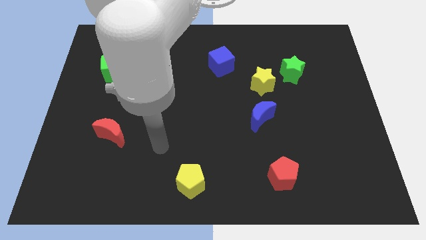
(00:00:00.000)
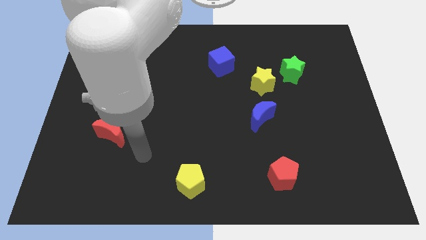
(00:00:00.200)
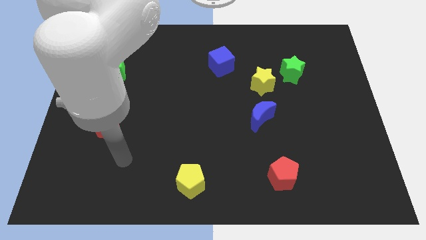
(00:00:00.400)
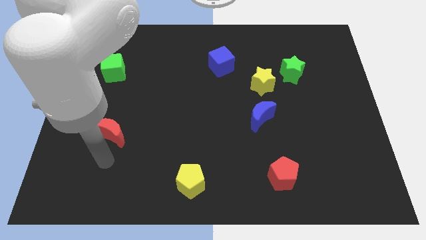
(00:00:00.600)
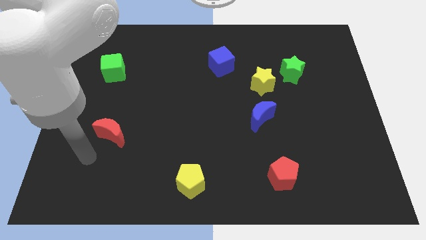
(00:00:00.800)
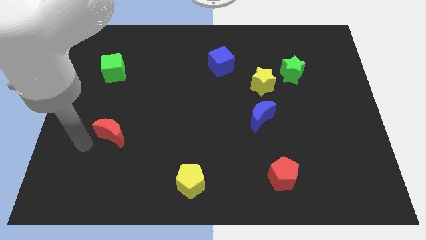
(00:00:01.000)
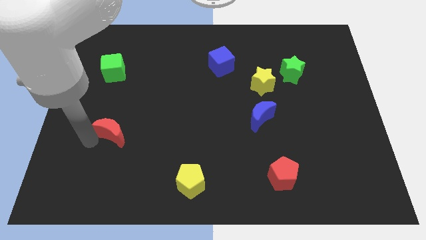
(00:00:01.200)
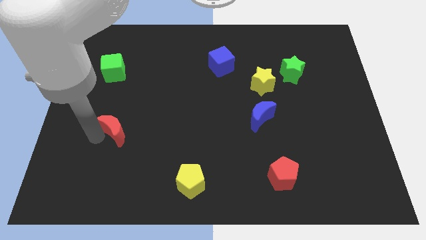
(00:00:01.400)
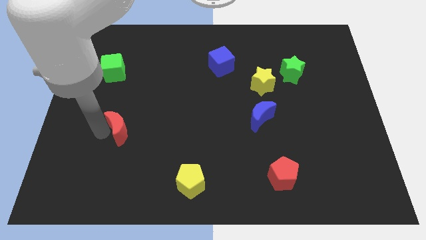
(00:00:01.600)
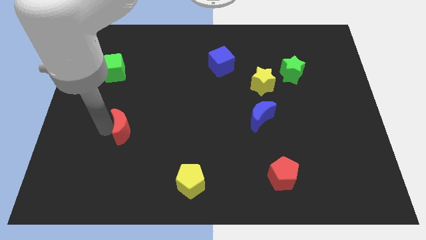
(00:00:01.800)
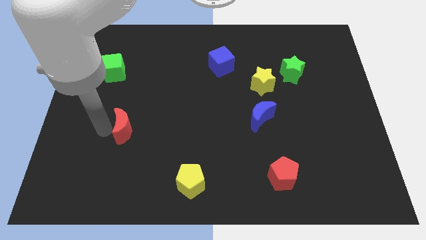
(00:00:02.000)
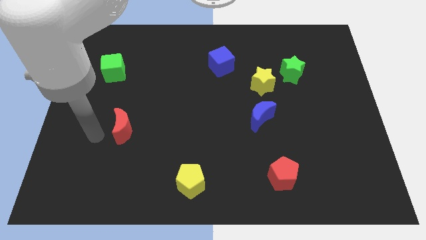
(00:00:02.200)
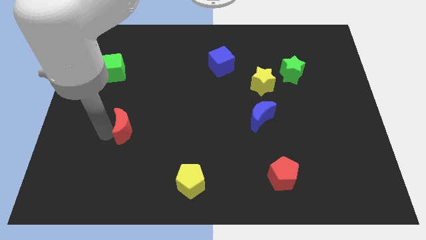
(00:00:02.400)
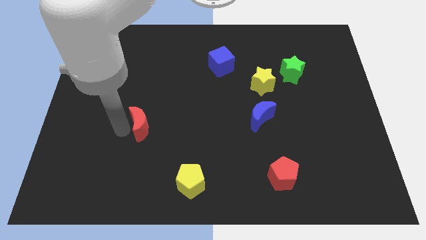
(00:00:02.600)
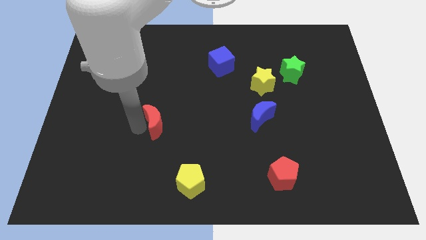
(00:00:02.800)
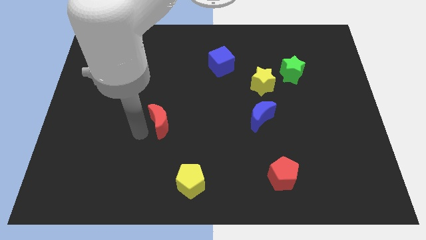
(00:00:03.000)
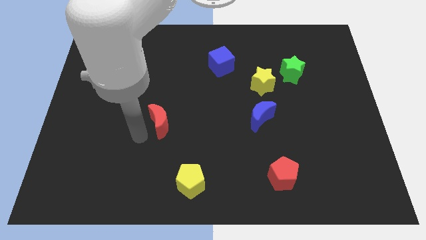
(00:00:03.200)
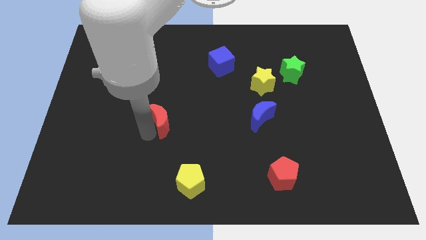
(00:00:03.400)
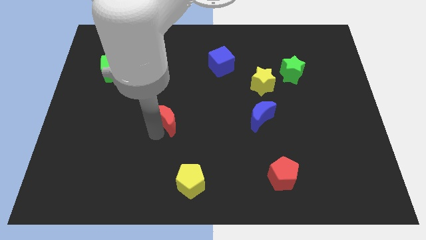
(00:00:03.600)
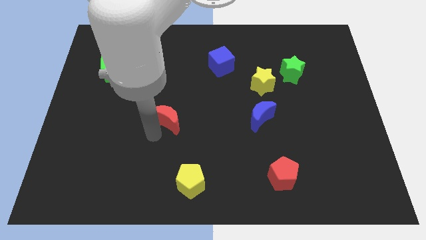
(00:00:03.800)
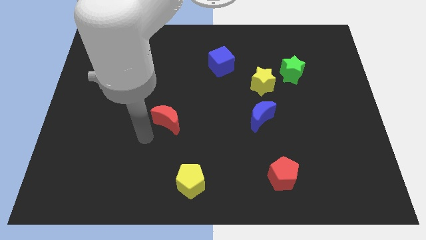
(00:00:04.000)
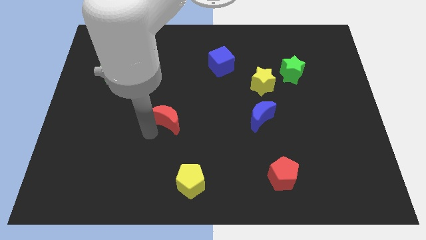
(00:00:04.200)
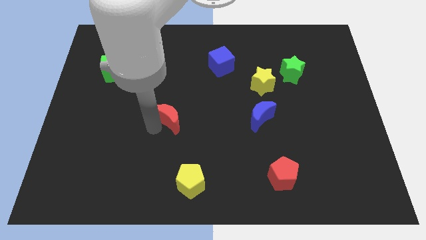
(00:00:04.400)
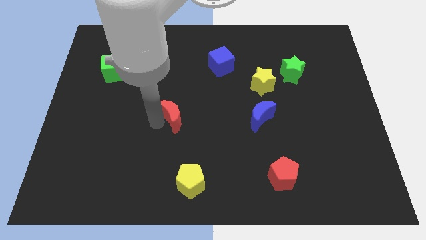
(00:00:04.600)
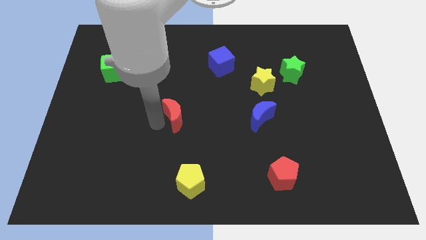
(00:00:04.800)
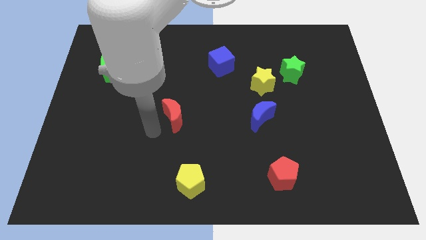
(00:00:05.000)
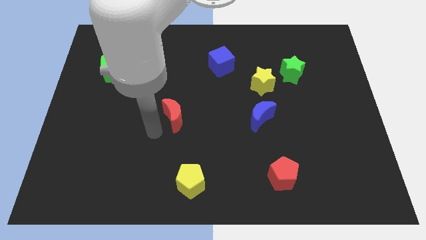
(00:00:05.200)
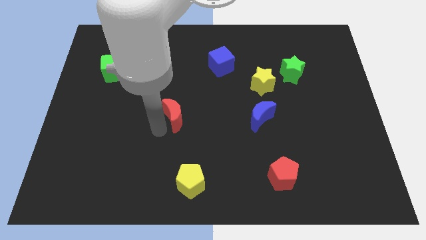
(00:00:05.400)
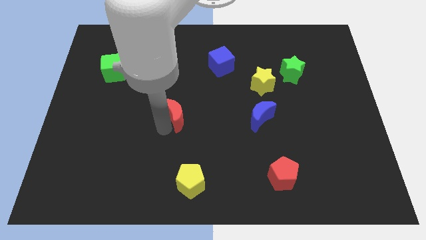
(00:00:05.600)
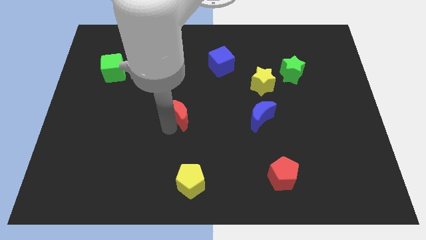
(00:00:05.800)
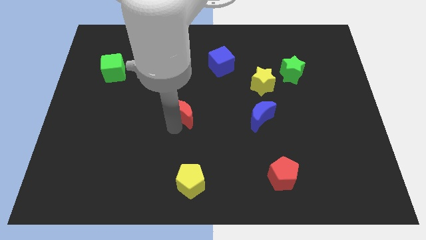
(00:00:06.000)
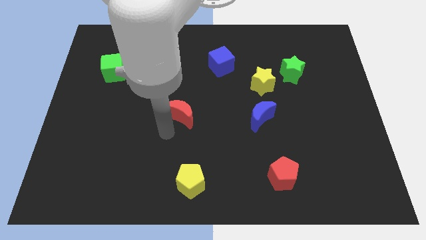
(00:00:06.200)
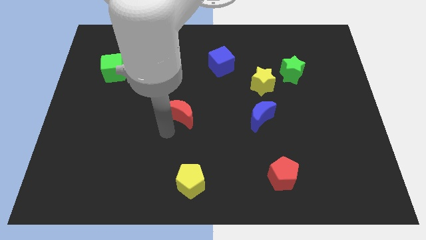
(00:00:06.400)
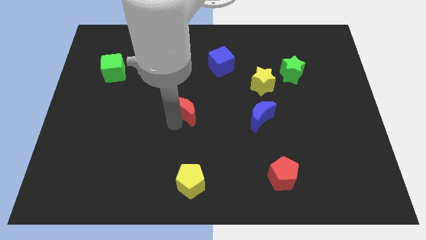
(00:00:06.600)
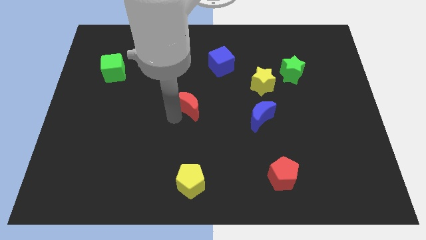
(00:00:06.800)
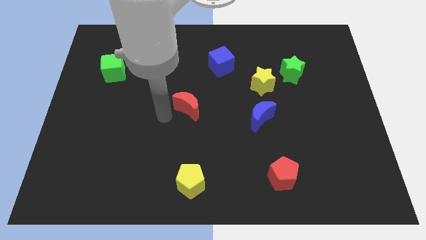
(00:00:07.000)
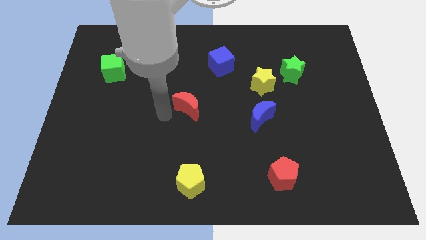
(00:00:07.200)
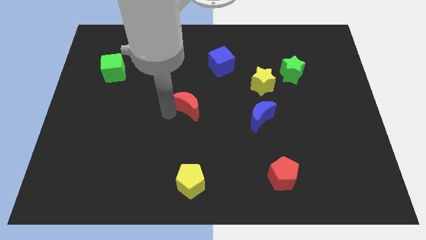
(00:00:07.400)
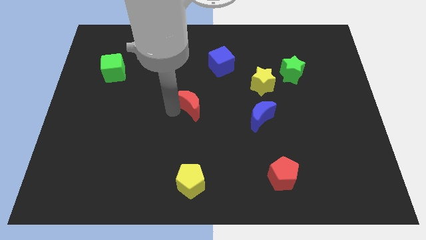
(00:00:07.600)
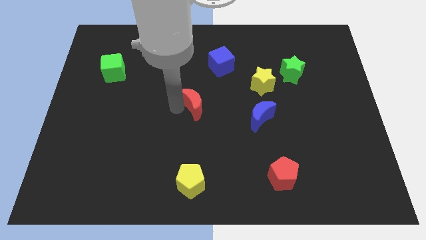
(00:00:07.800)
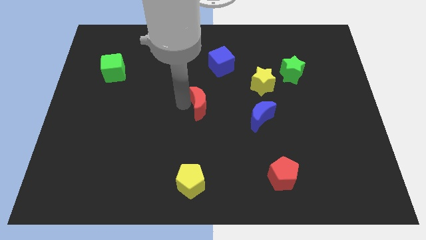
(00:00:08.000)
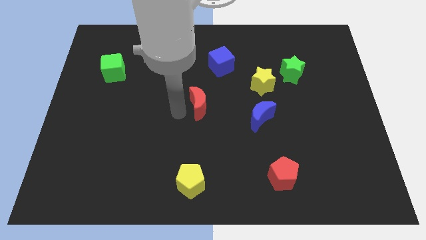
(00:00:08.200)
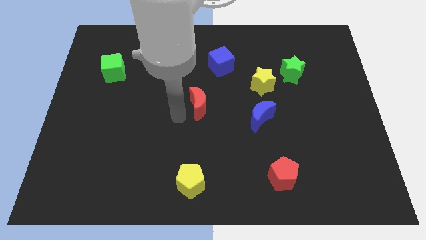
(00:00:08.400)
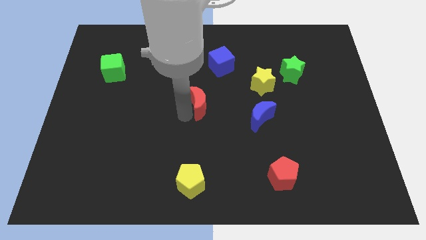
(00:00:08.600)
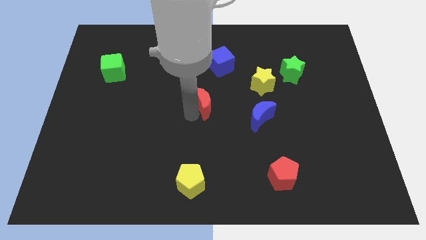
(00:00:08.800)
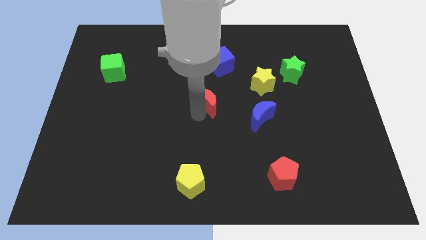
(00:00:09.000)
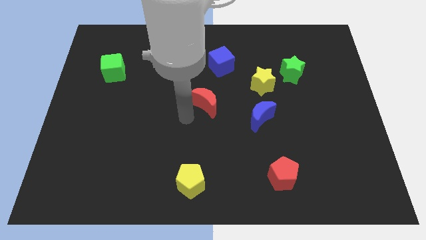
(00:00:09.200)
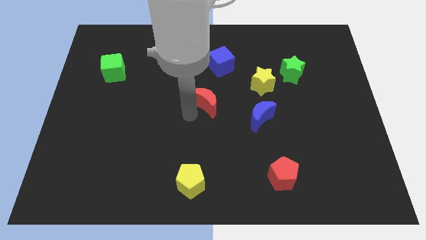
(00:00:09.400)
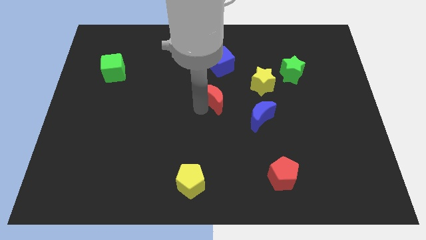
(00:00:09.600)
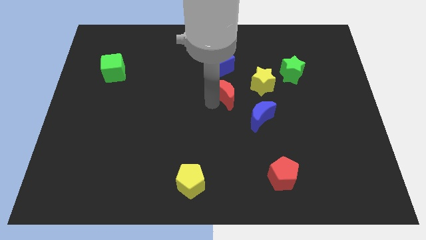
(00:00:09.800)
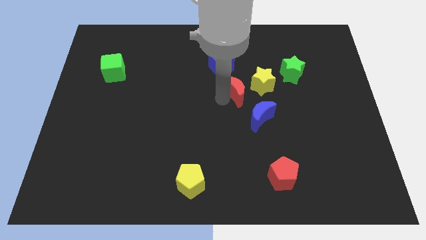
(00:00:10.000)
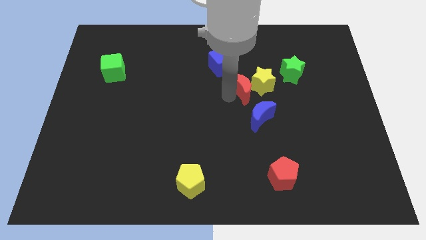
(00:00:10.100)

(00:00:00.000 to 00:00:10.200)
put the red moon next to the yellow star

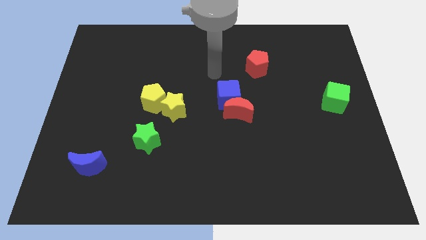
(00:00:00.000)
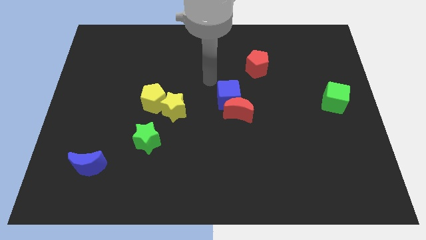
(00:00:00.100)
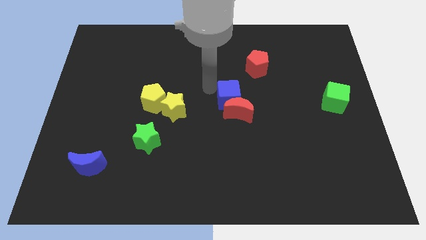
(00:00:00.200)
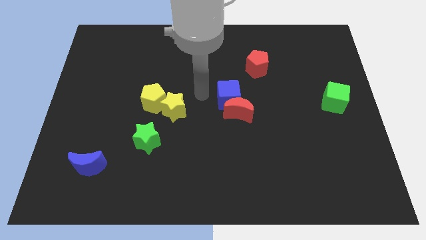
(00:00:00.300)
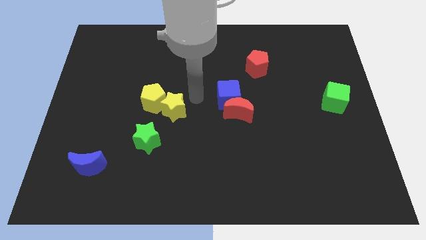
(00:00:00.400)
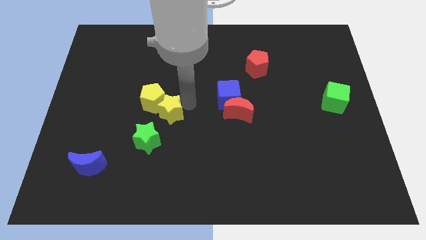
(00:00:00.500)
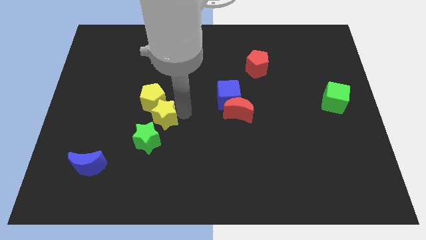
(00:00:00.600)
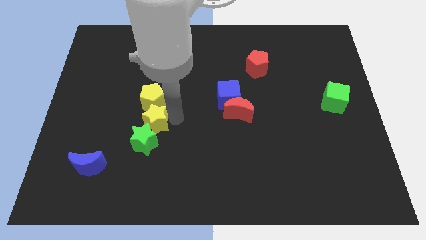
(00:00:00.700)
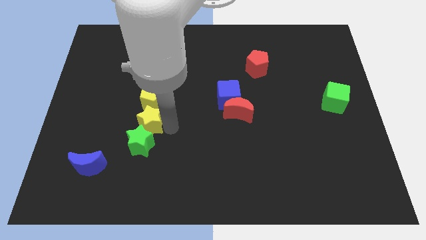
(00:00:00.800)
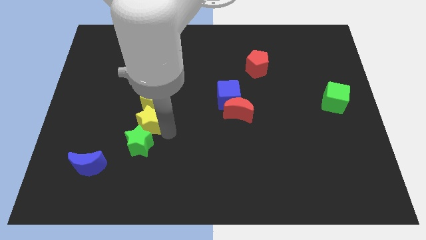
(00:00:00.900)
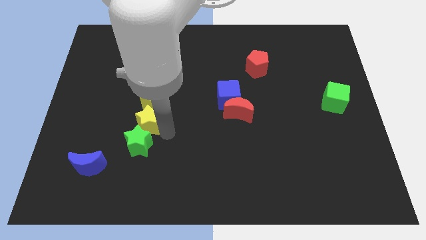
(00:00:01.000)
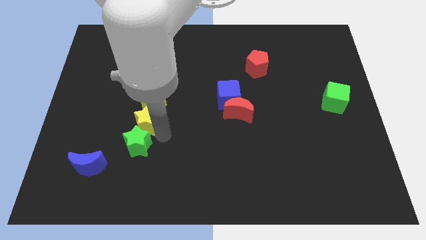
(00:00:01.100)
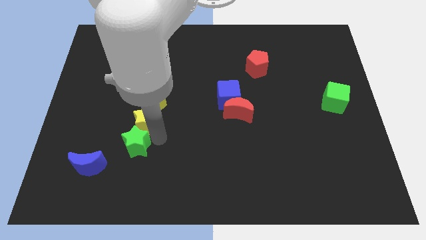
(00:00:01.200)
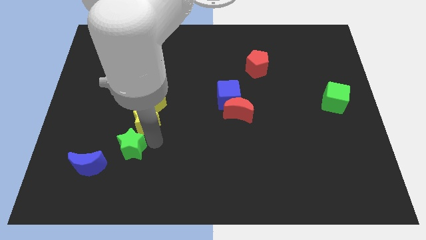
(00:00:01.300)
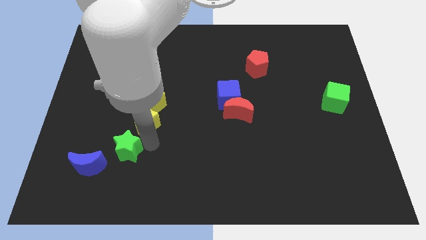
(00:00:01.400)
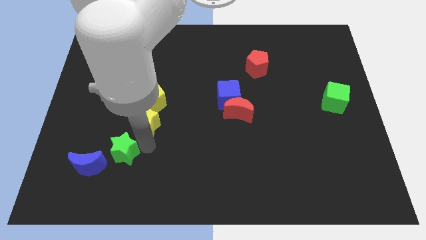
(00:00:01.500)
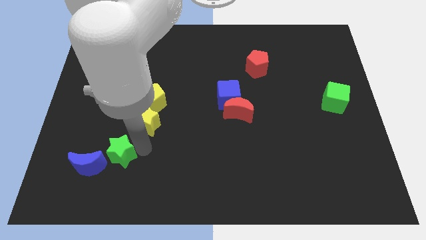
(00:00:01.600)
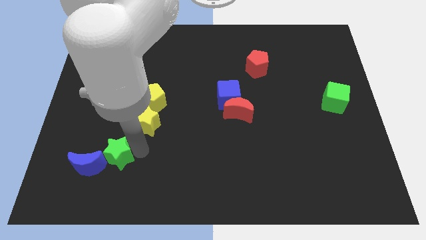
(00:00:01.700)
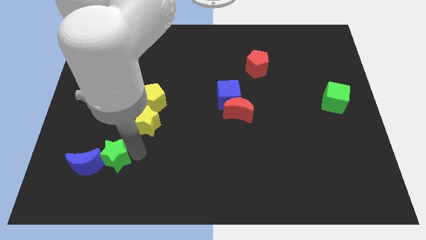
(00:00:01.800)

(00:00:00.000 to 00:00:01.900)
put the green star close to the blue moon
